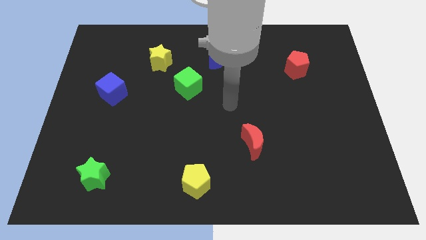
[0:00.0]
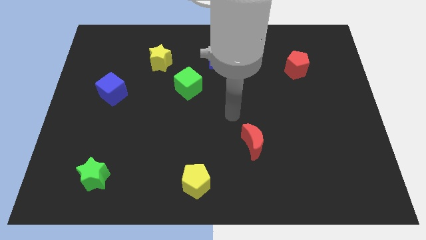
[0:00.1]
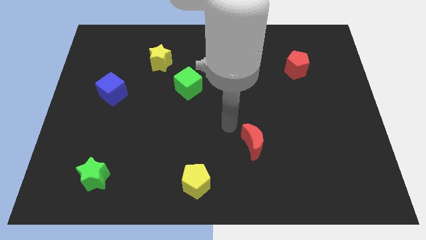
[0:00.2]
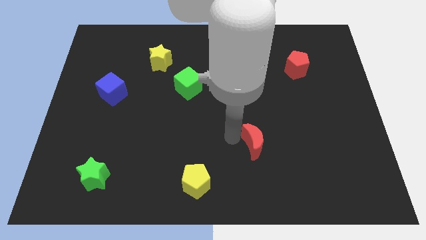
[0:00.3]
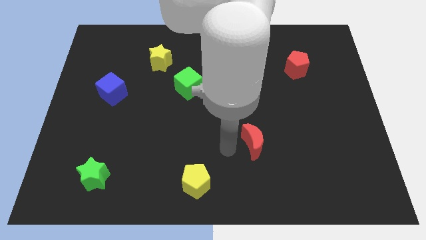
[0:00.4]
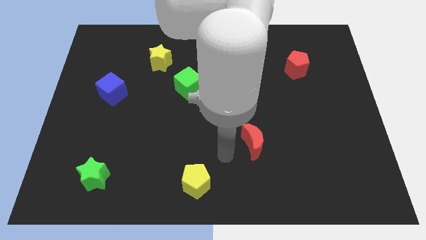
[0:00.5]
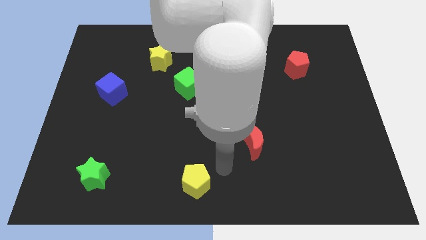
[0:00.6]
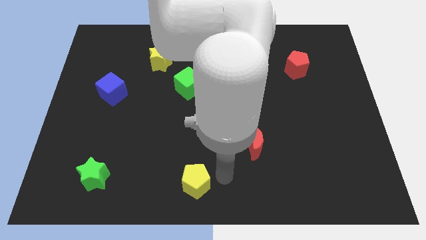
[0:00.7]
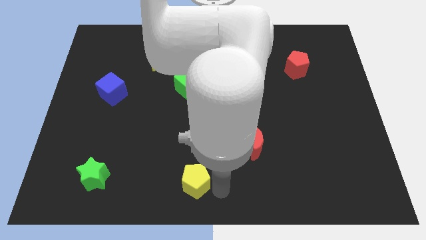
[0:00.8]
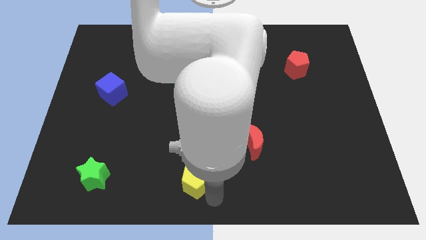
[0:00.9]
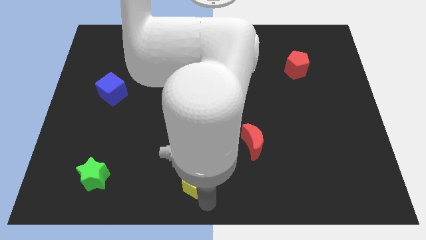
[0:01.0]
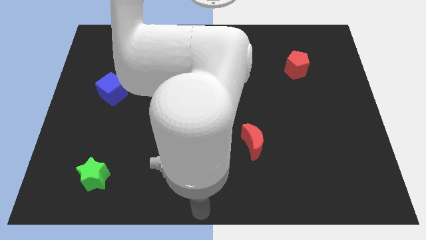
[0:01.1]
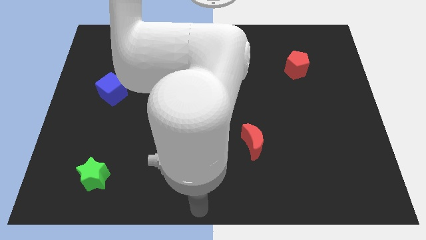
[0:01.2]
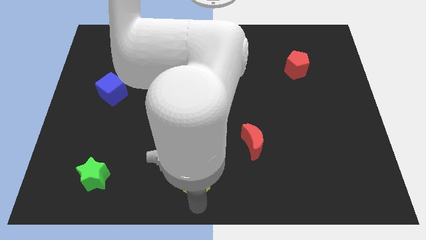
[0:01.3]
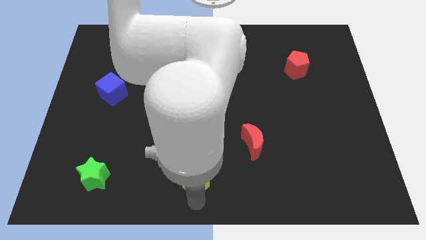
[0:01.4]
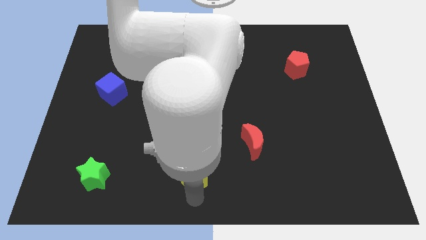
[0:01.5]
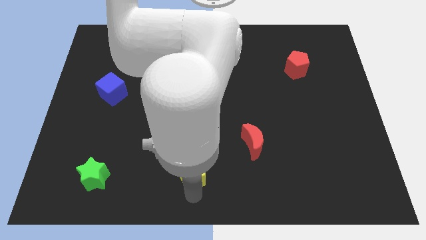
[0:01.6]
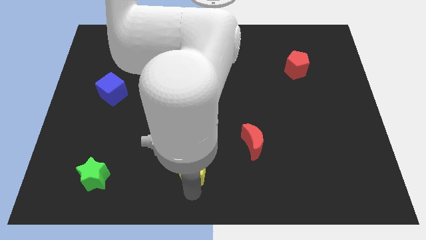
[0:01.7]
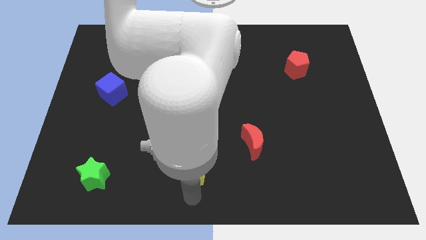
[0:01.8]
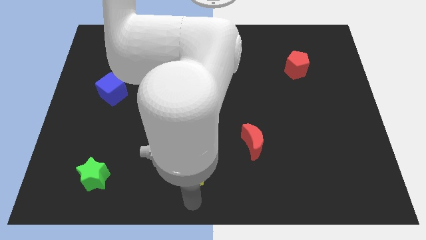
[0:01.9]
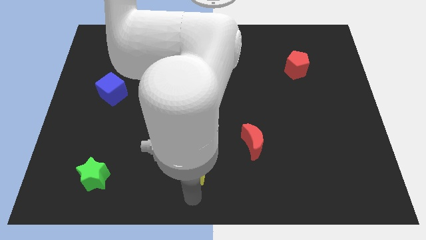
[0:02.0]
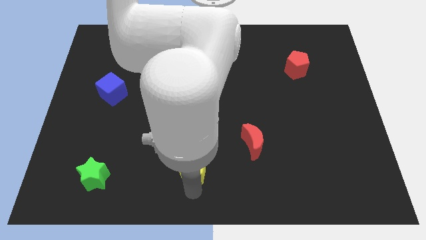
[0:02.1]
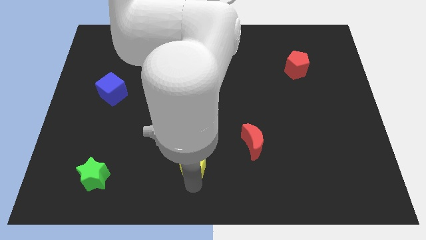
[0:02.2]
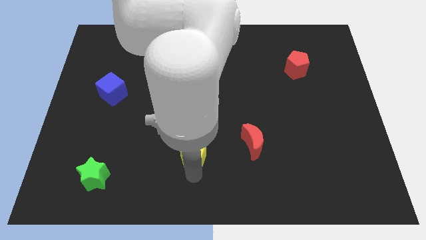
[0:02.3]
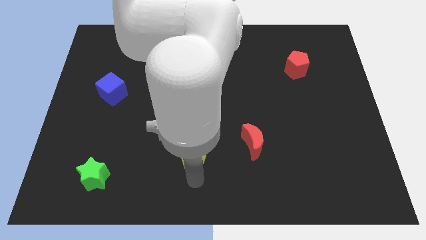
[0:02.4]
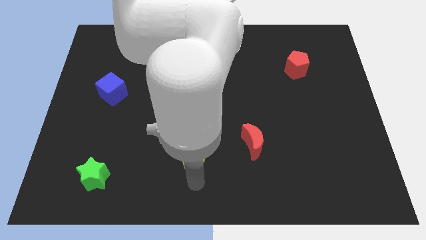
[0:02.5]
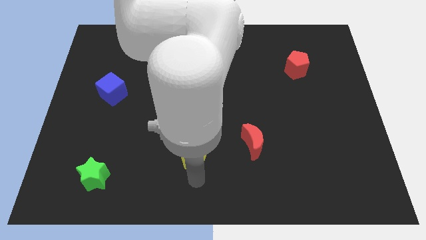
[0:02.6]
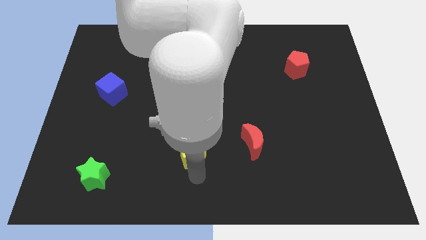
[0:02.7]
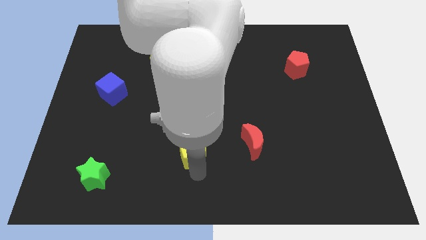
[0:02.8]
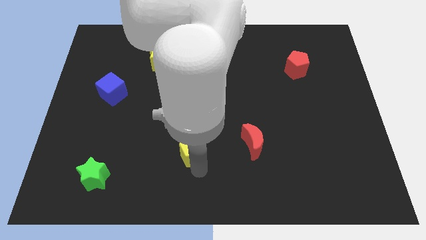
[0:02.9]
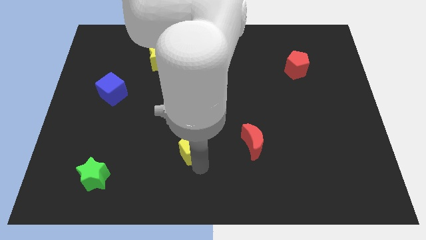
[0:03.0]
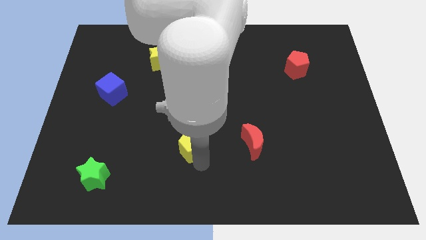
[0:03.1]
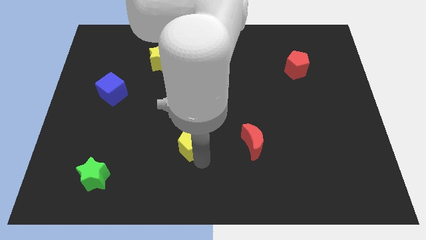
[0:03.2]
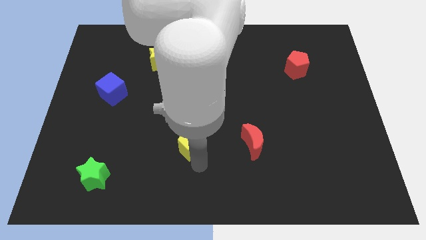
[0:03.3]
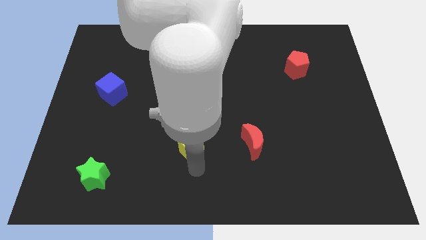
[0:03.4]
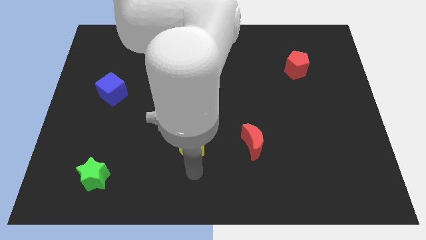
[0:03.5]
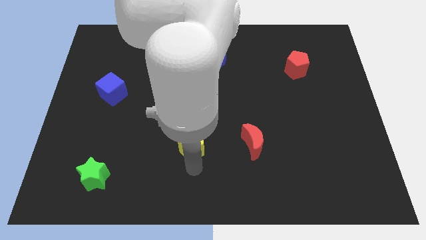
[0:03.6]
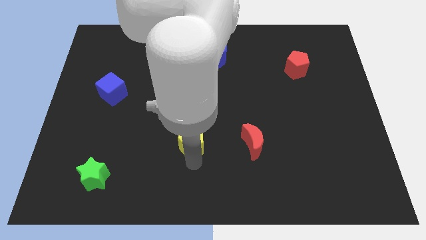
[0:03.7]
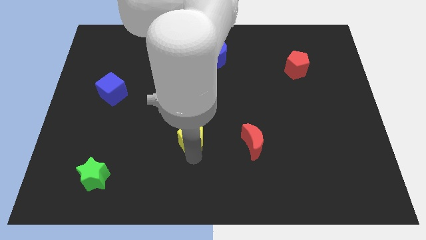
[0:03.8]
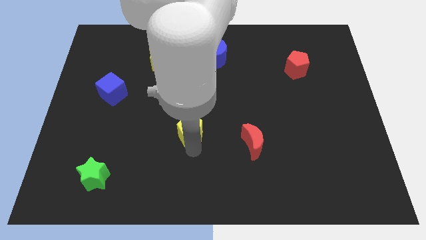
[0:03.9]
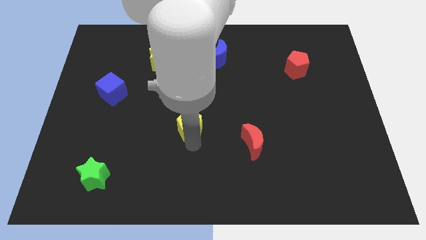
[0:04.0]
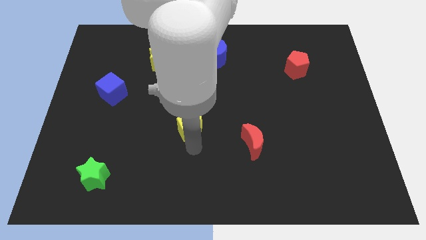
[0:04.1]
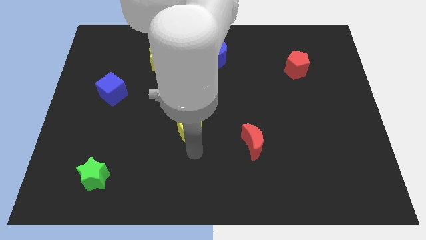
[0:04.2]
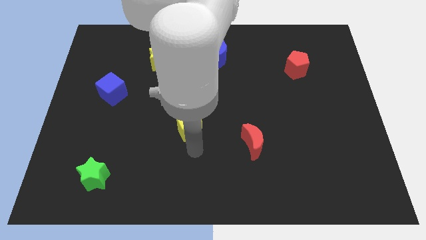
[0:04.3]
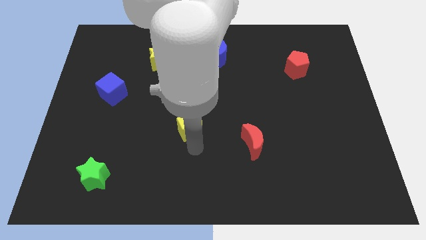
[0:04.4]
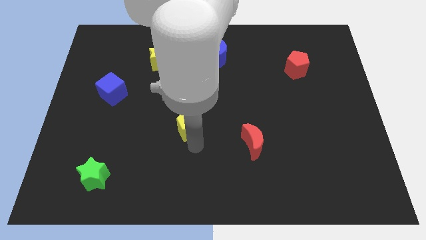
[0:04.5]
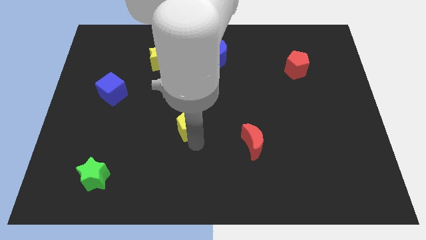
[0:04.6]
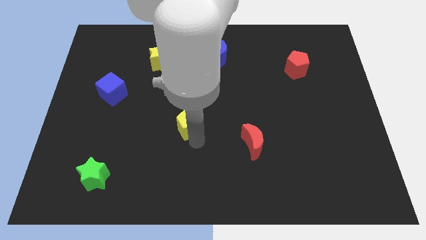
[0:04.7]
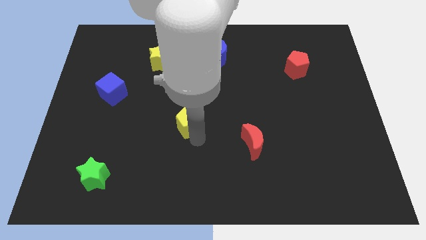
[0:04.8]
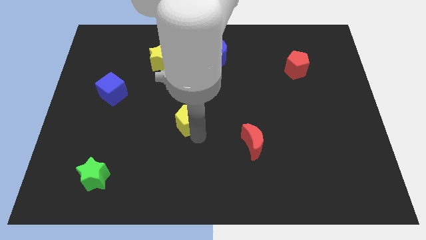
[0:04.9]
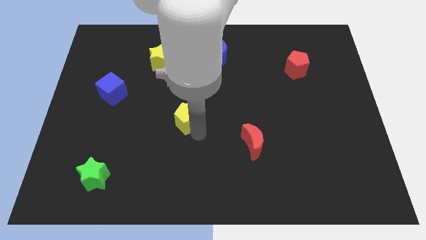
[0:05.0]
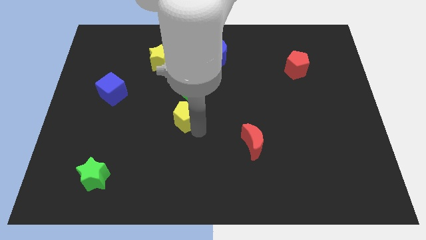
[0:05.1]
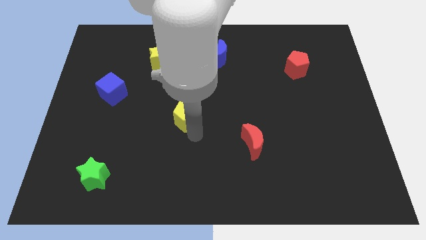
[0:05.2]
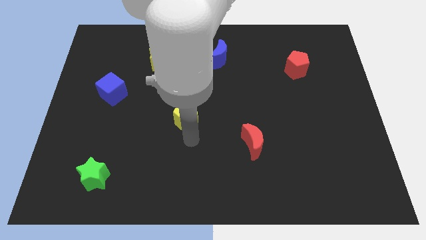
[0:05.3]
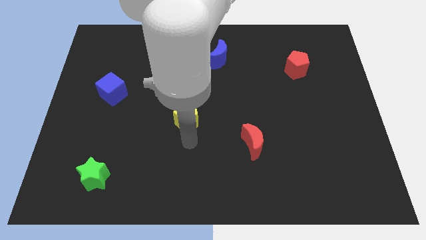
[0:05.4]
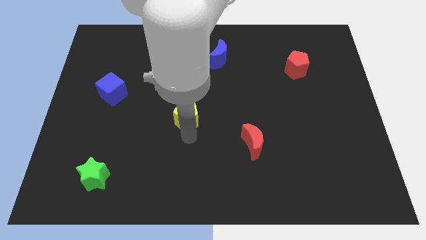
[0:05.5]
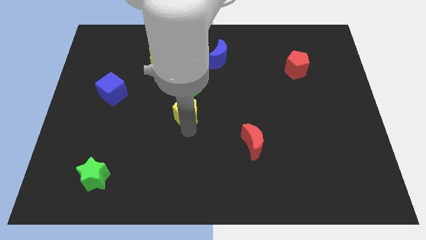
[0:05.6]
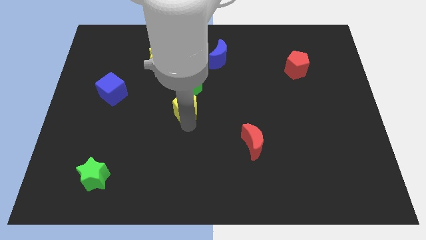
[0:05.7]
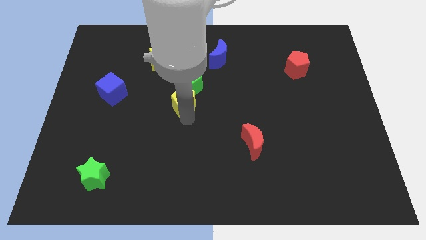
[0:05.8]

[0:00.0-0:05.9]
push the yellow pentagon to the green cube

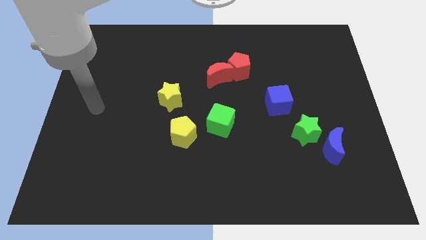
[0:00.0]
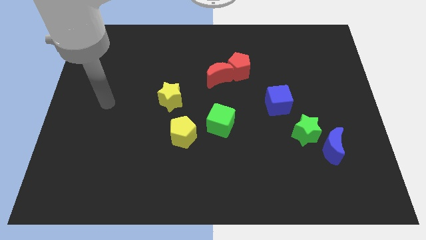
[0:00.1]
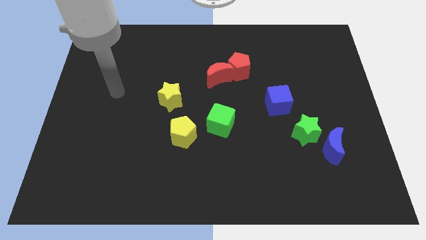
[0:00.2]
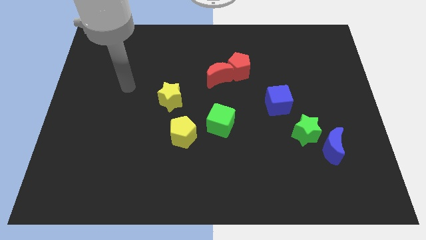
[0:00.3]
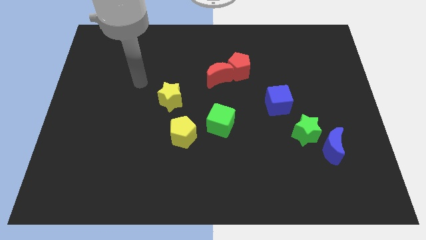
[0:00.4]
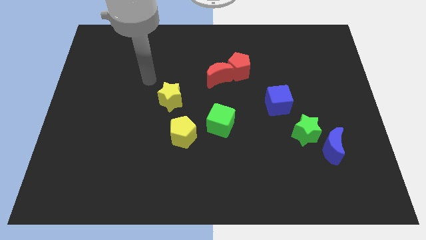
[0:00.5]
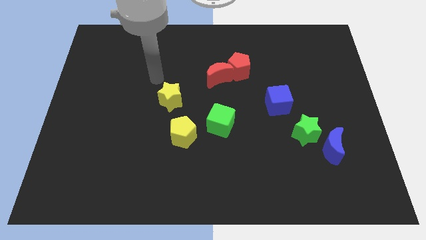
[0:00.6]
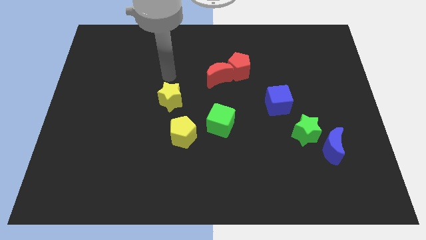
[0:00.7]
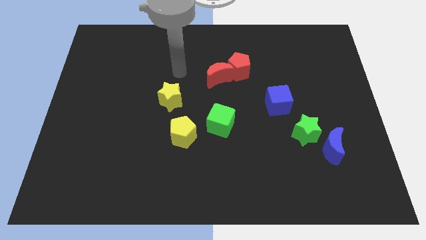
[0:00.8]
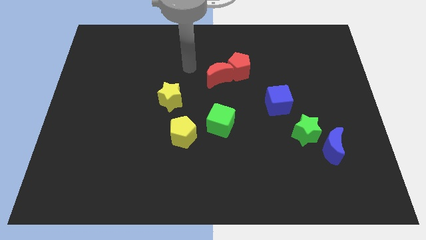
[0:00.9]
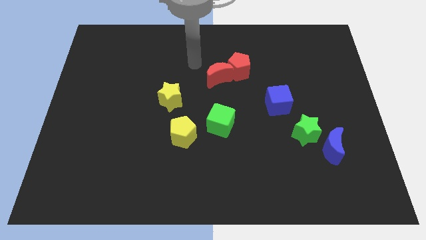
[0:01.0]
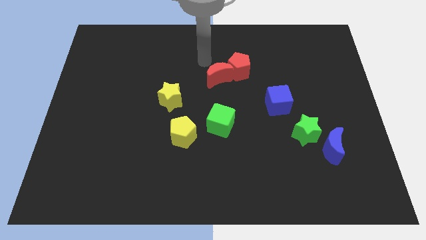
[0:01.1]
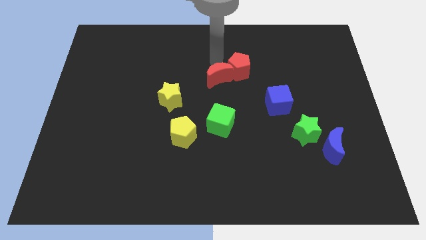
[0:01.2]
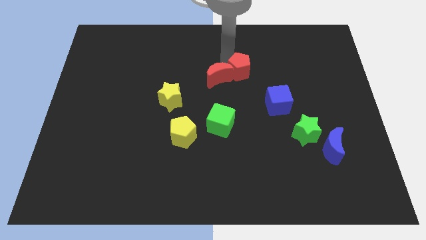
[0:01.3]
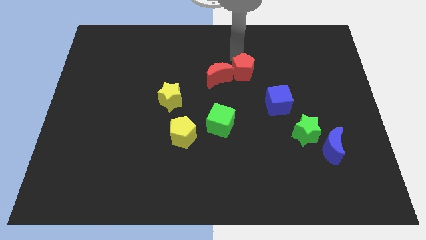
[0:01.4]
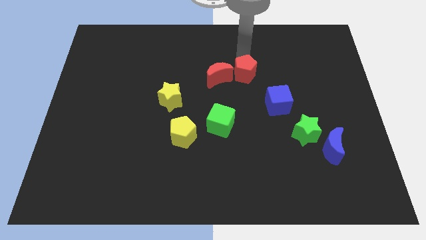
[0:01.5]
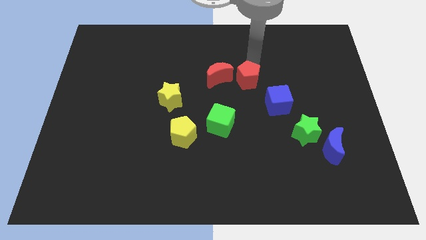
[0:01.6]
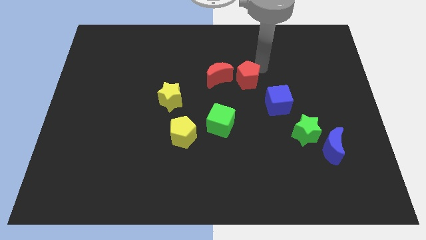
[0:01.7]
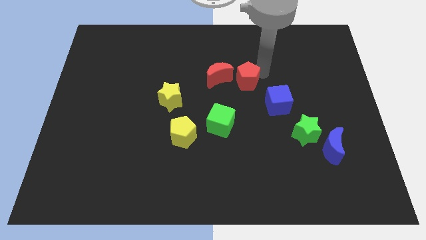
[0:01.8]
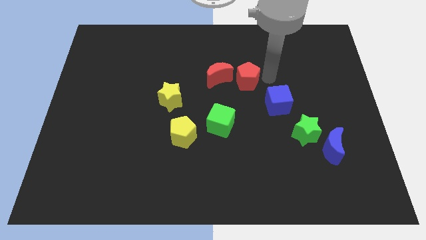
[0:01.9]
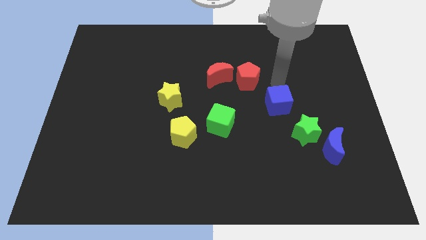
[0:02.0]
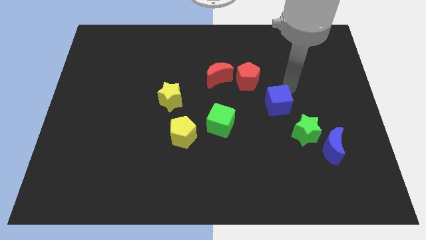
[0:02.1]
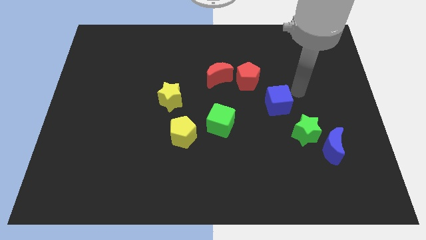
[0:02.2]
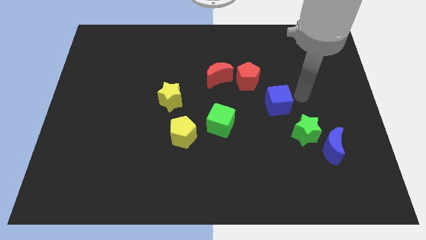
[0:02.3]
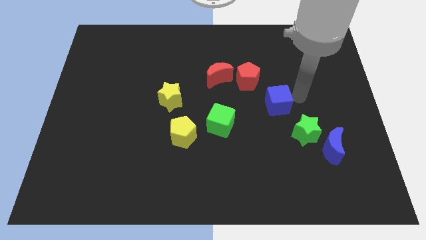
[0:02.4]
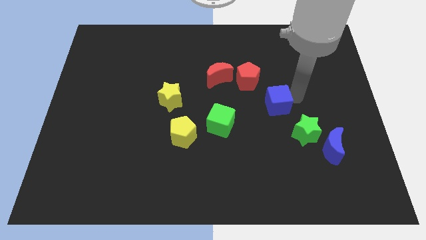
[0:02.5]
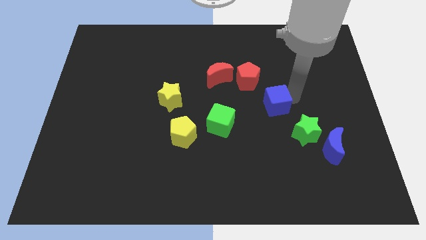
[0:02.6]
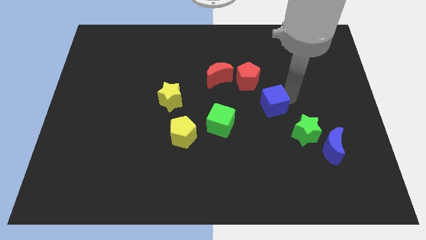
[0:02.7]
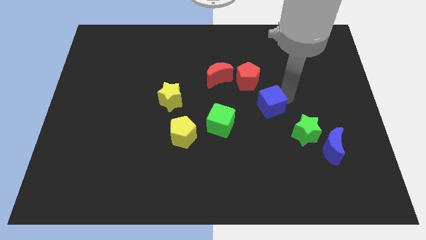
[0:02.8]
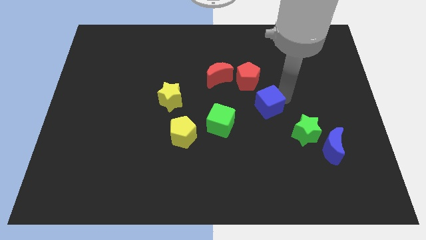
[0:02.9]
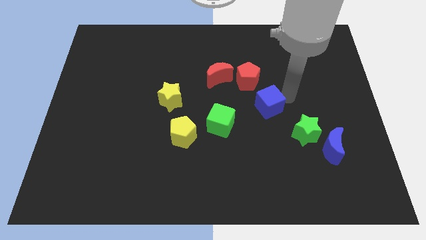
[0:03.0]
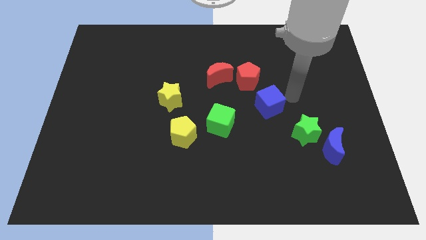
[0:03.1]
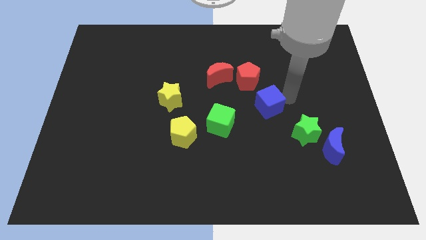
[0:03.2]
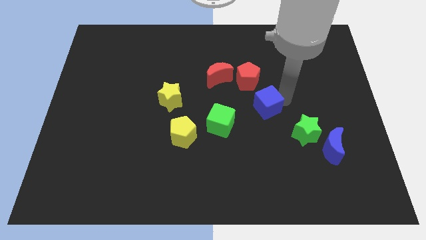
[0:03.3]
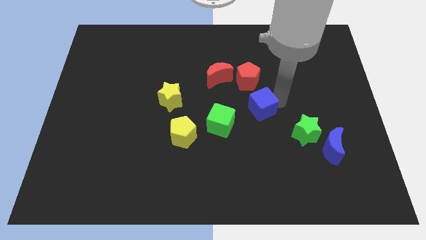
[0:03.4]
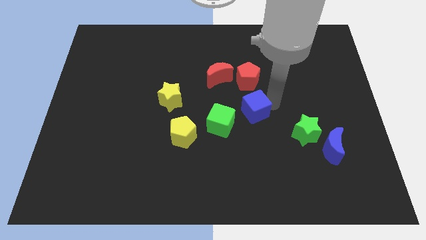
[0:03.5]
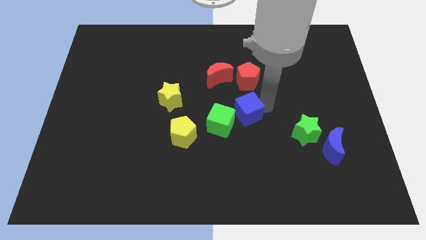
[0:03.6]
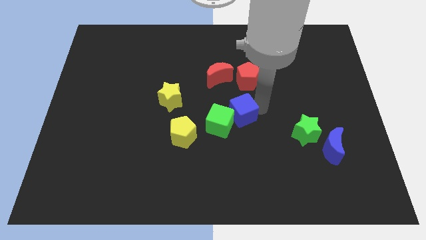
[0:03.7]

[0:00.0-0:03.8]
slide the blue cube to the green cube
